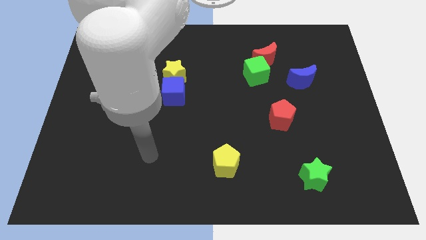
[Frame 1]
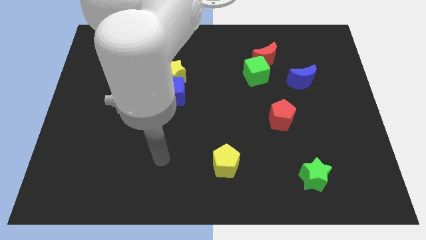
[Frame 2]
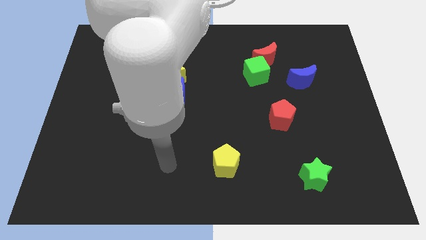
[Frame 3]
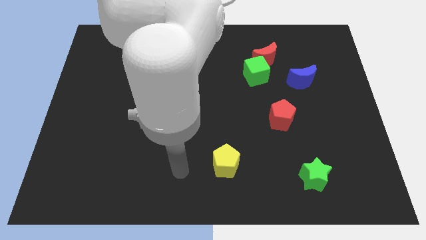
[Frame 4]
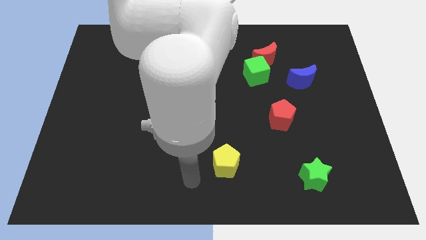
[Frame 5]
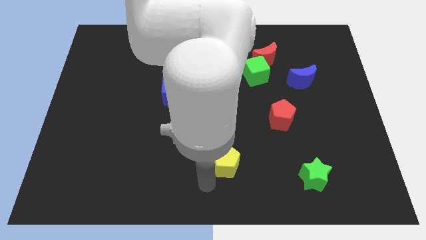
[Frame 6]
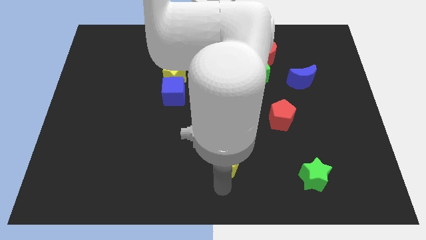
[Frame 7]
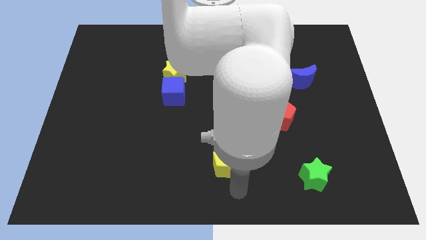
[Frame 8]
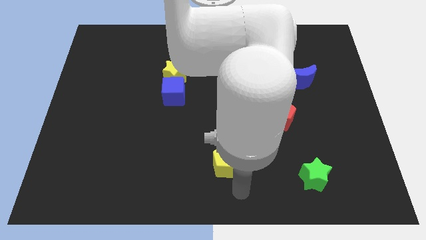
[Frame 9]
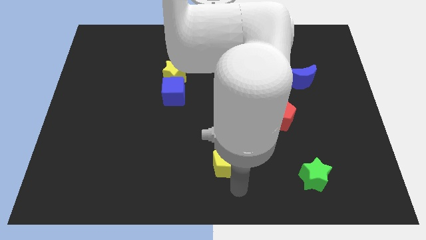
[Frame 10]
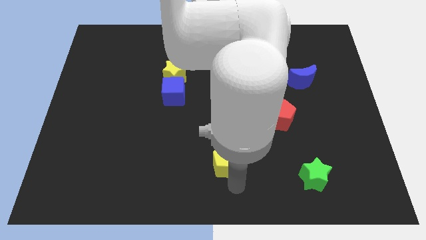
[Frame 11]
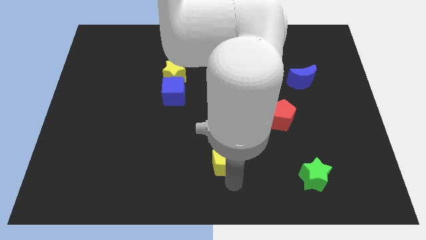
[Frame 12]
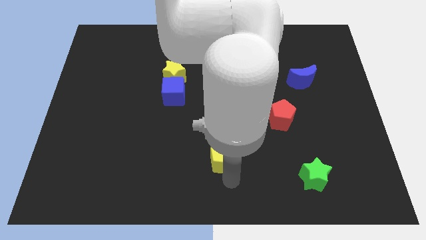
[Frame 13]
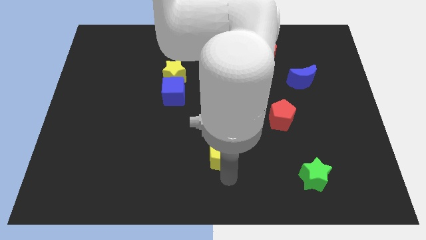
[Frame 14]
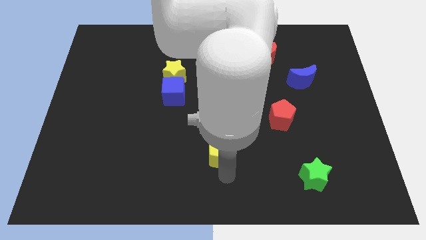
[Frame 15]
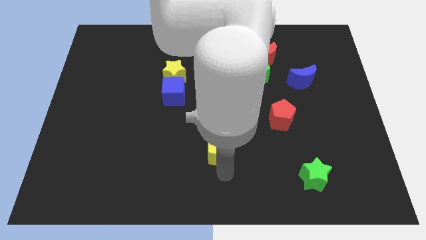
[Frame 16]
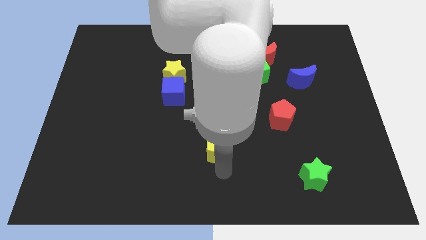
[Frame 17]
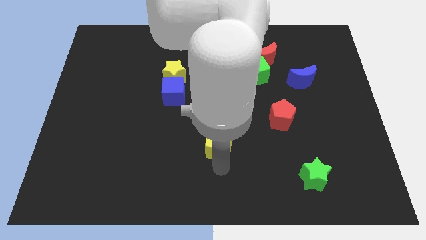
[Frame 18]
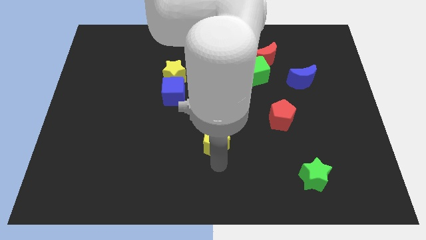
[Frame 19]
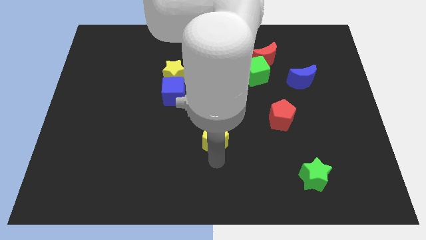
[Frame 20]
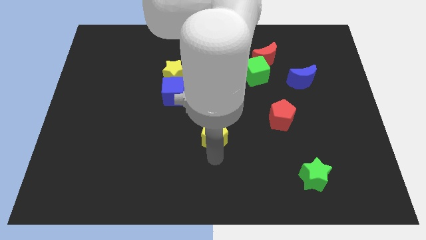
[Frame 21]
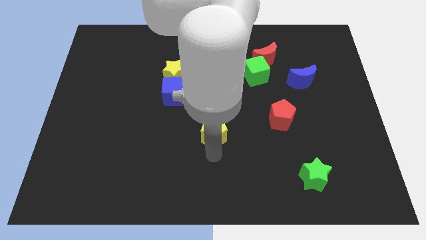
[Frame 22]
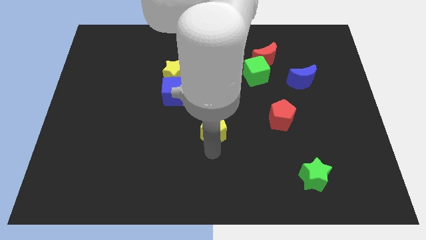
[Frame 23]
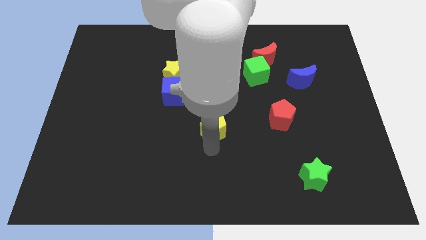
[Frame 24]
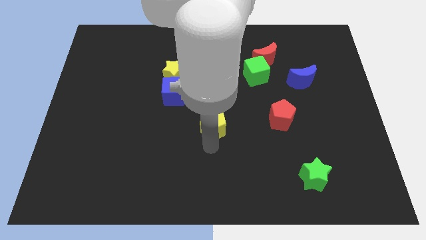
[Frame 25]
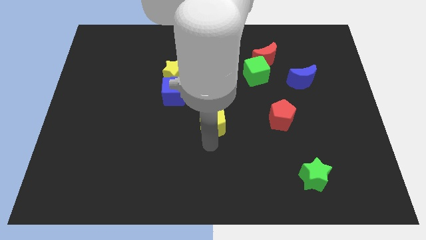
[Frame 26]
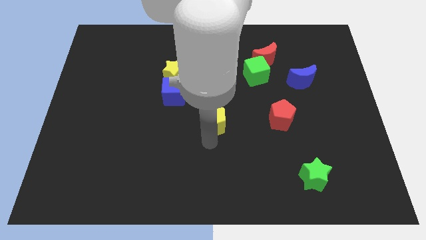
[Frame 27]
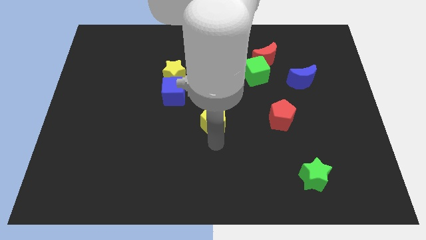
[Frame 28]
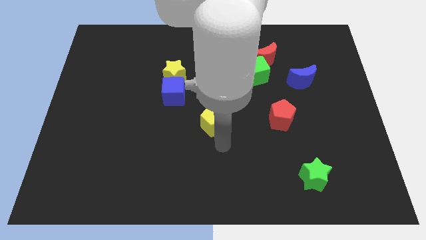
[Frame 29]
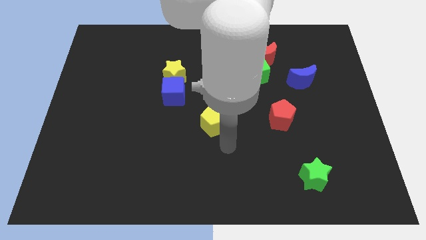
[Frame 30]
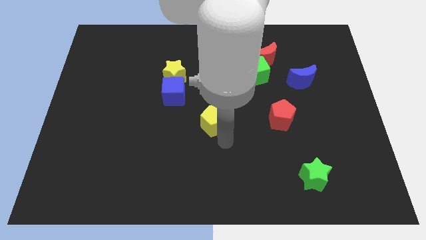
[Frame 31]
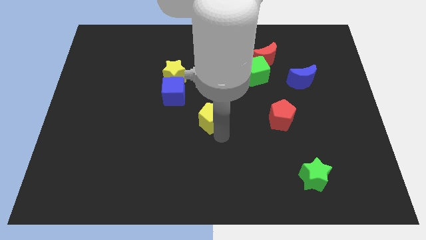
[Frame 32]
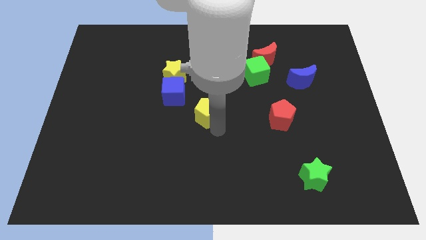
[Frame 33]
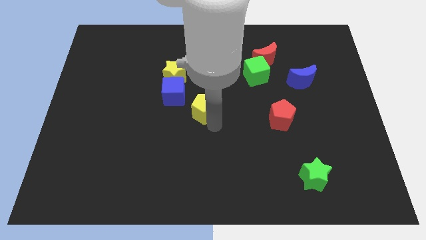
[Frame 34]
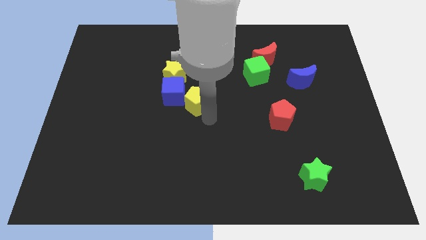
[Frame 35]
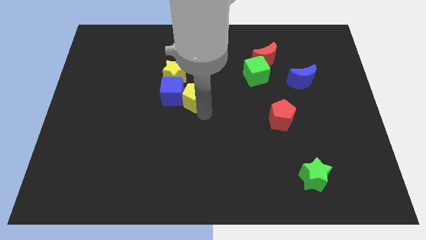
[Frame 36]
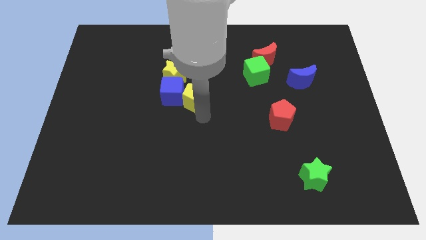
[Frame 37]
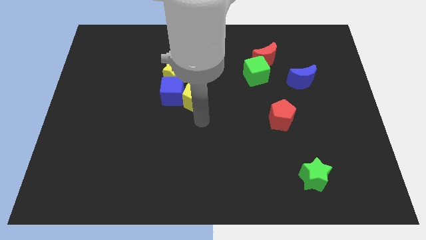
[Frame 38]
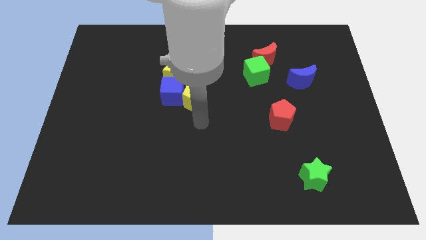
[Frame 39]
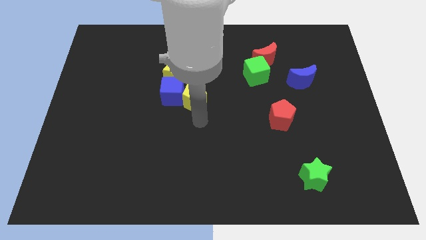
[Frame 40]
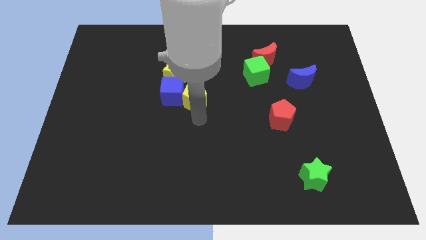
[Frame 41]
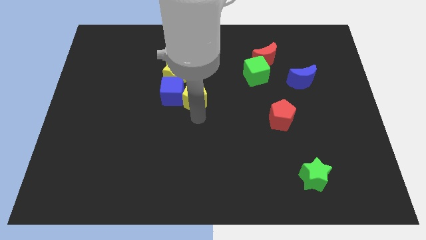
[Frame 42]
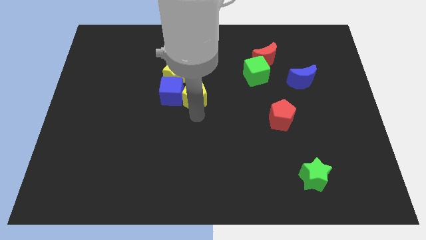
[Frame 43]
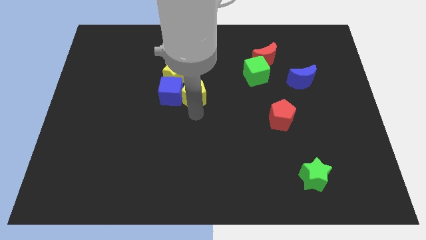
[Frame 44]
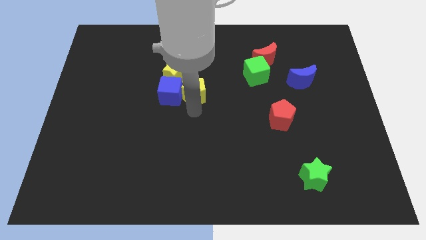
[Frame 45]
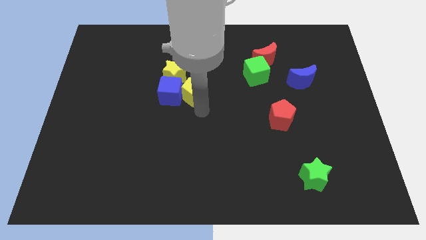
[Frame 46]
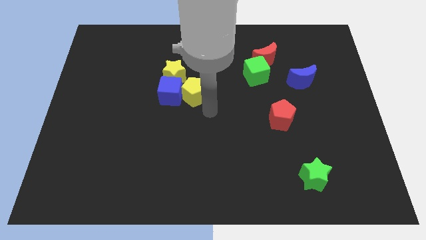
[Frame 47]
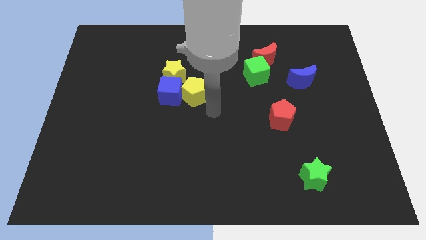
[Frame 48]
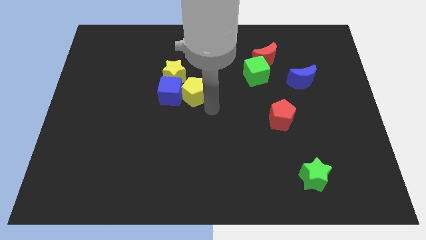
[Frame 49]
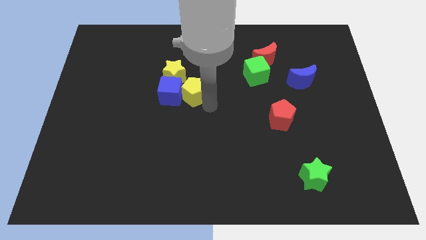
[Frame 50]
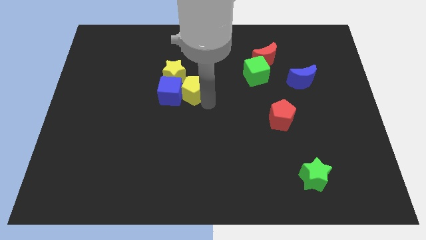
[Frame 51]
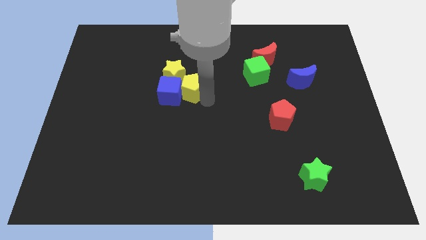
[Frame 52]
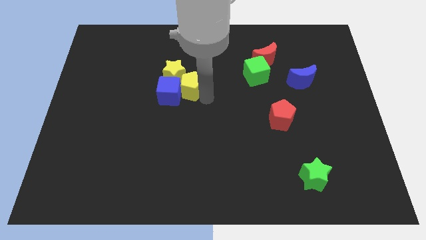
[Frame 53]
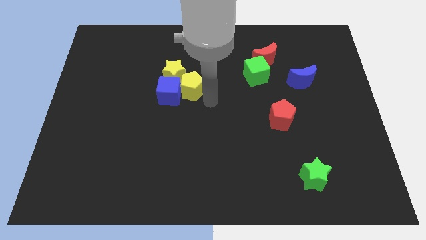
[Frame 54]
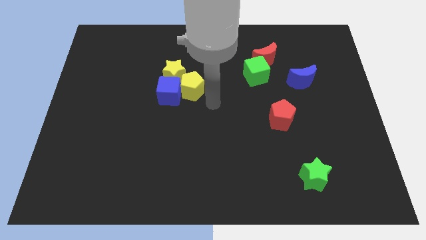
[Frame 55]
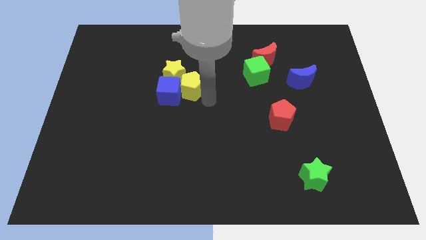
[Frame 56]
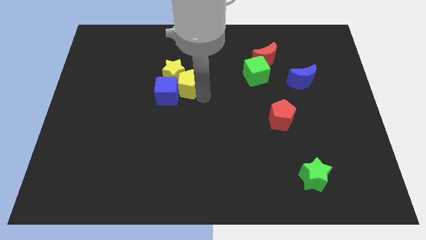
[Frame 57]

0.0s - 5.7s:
push the yellow pentagon towards the yellow star

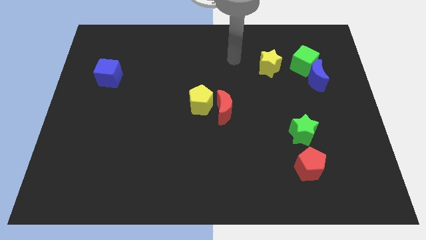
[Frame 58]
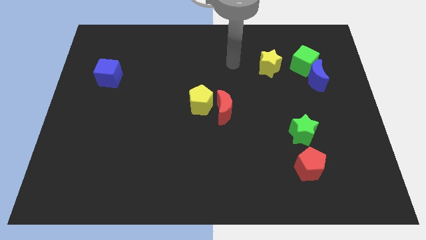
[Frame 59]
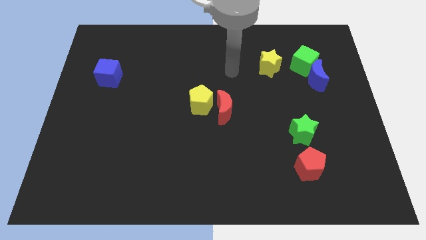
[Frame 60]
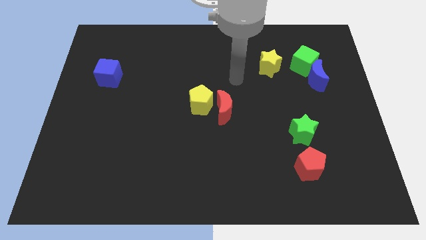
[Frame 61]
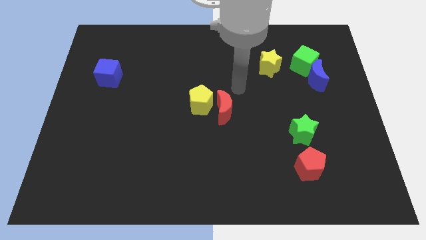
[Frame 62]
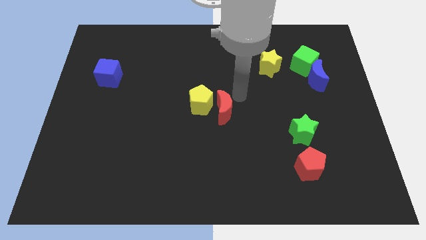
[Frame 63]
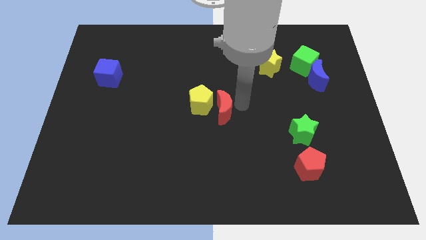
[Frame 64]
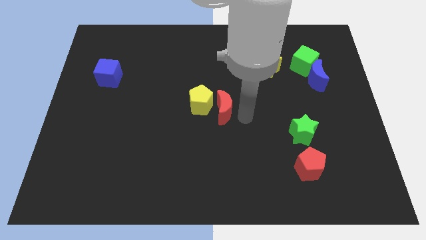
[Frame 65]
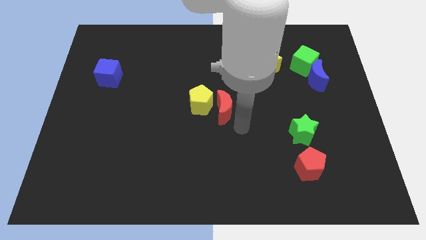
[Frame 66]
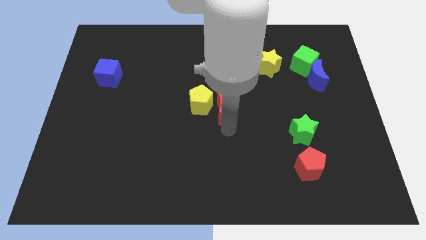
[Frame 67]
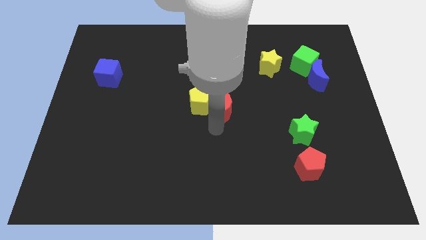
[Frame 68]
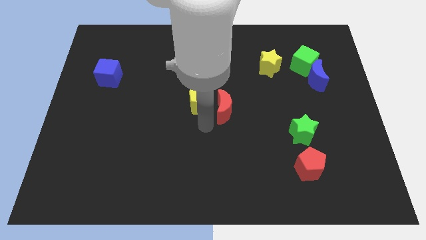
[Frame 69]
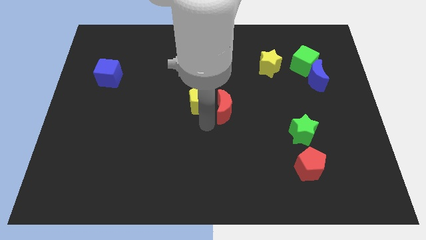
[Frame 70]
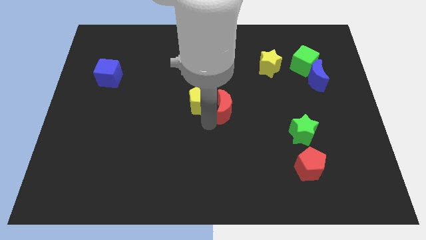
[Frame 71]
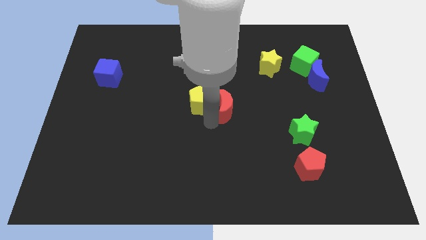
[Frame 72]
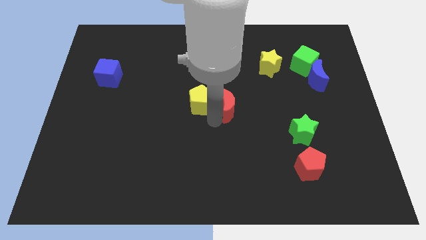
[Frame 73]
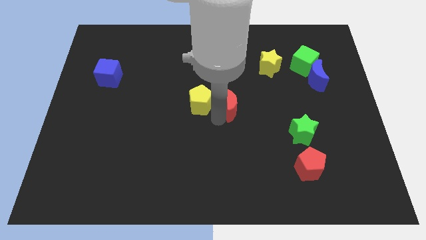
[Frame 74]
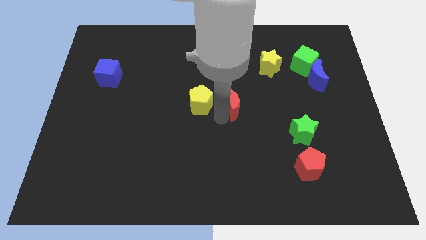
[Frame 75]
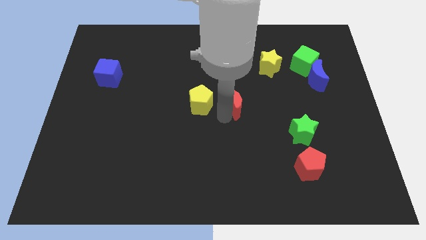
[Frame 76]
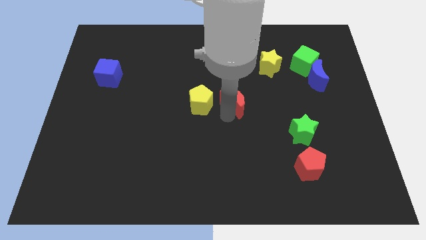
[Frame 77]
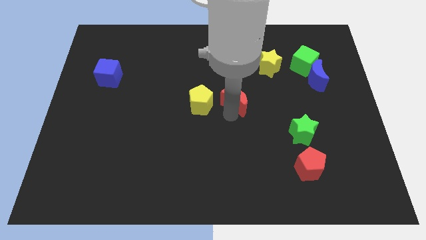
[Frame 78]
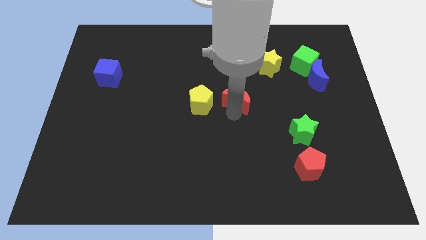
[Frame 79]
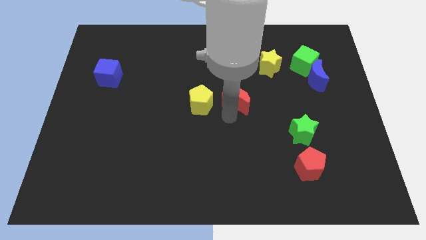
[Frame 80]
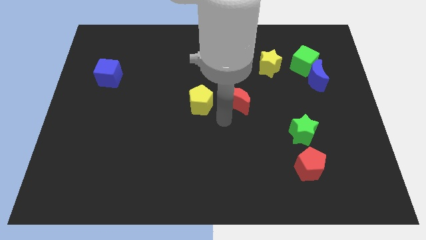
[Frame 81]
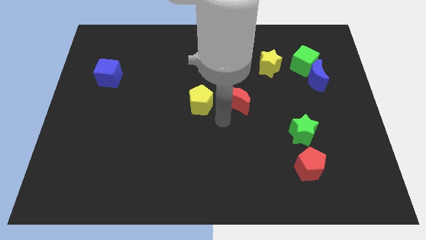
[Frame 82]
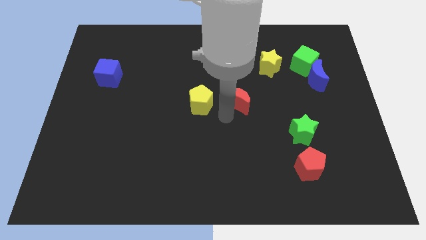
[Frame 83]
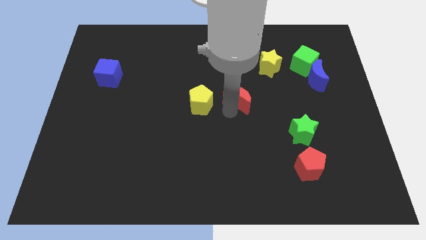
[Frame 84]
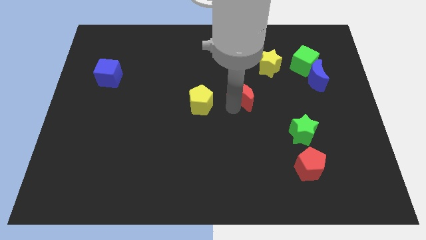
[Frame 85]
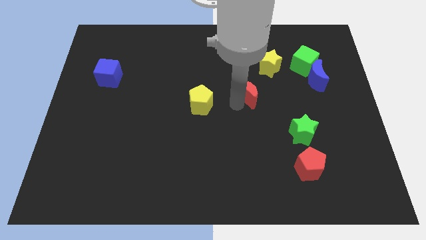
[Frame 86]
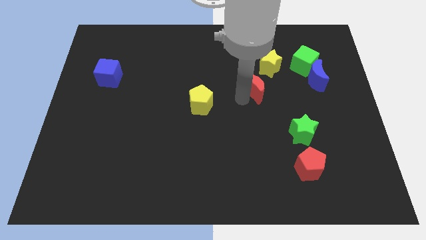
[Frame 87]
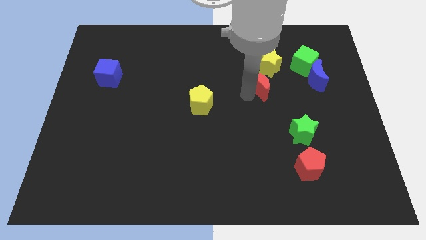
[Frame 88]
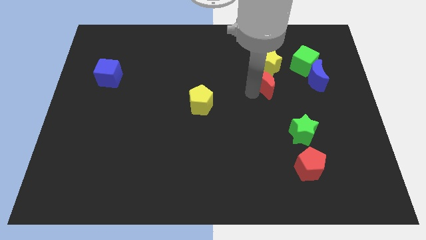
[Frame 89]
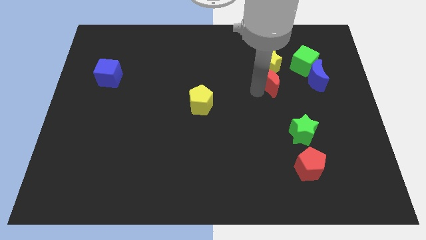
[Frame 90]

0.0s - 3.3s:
move the red moon next to the yellow star
